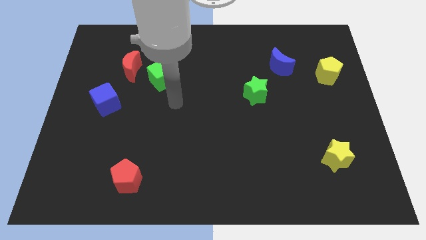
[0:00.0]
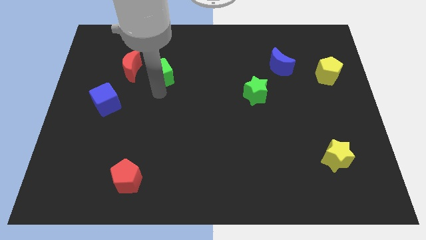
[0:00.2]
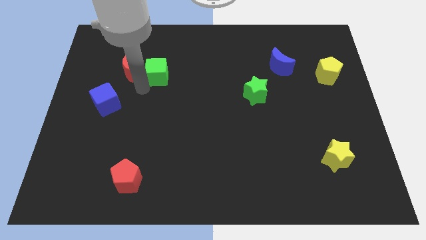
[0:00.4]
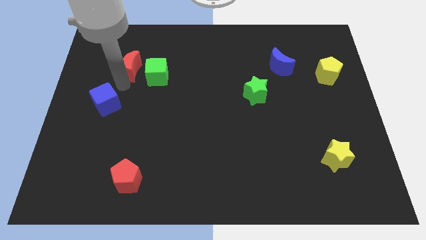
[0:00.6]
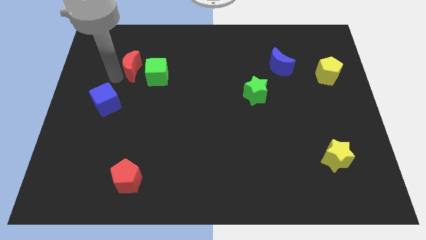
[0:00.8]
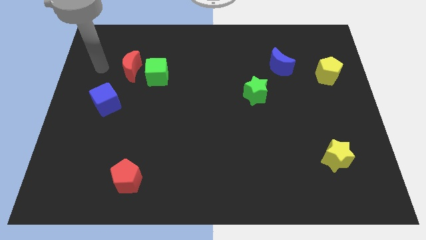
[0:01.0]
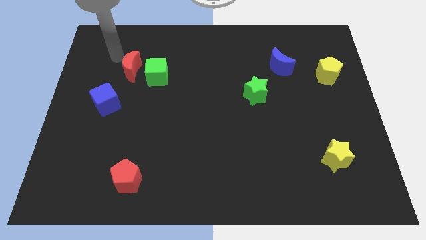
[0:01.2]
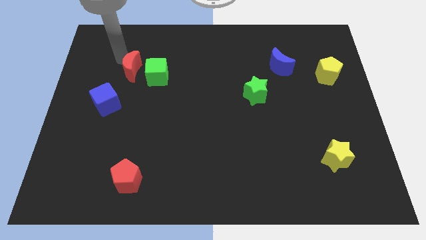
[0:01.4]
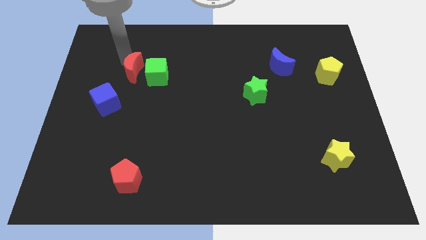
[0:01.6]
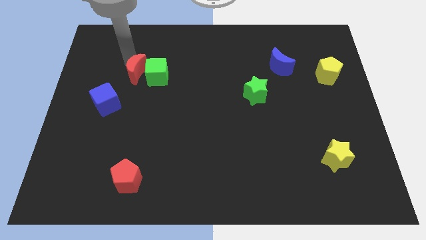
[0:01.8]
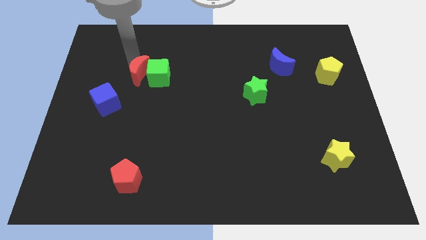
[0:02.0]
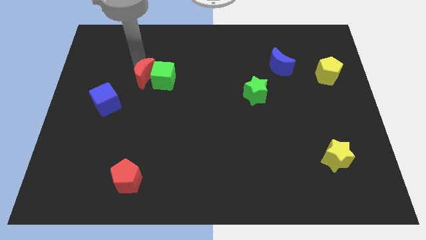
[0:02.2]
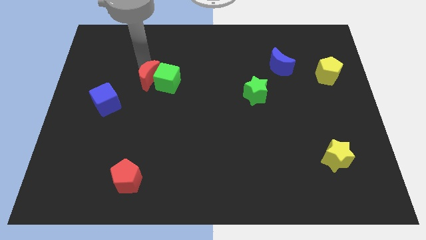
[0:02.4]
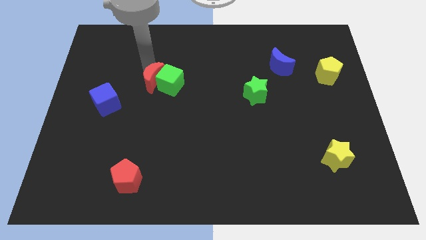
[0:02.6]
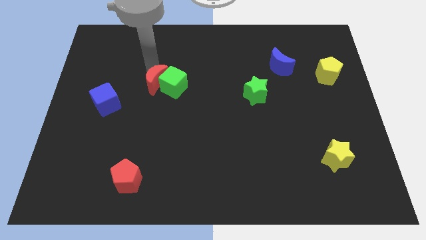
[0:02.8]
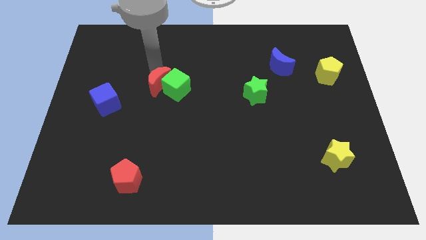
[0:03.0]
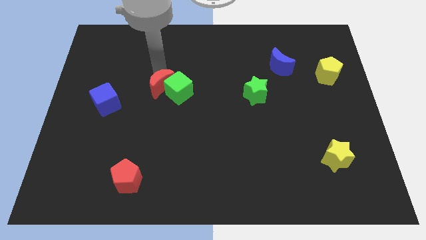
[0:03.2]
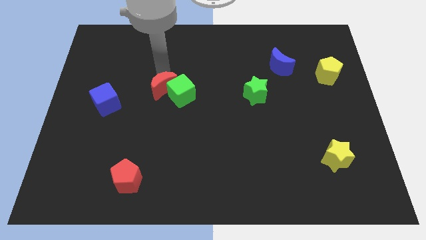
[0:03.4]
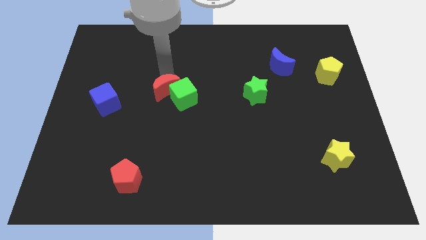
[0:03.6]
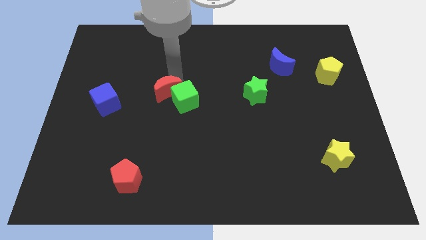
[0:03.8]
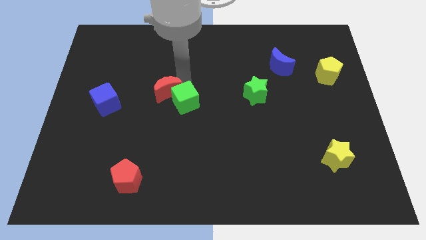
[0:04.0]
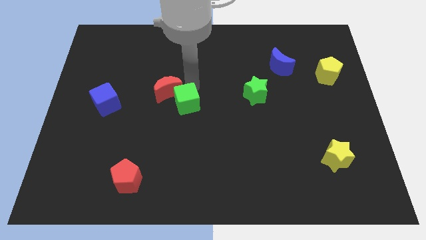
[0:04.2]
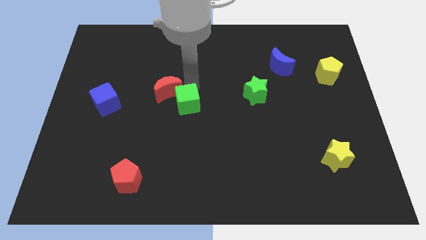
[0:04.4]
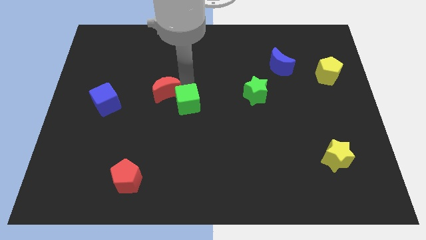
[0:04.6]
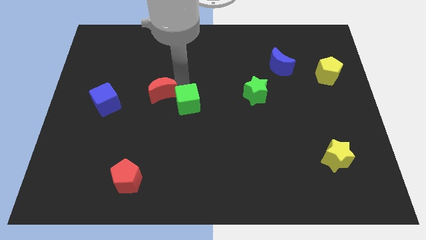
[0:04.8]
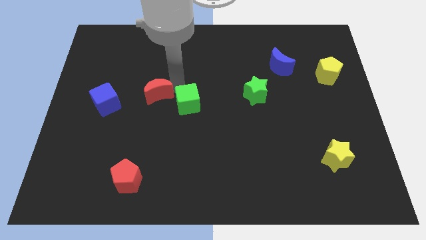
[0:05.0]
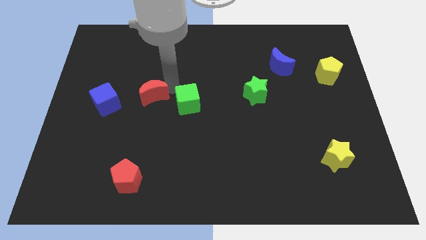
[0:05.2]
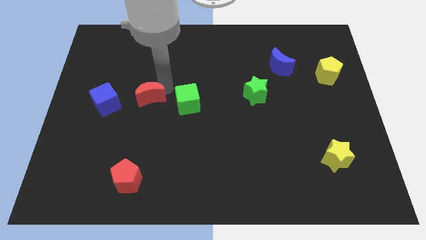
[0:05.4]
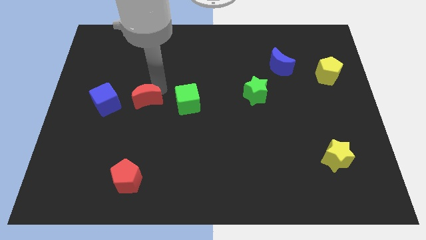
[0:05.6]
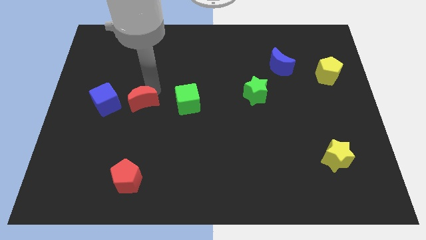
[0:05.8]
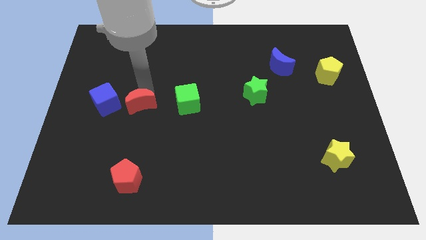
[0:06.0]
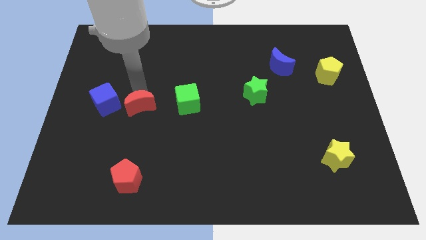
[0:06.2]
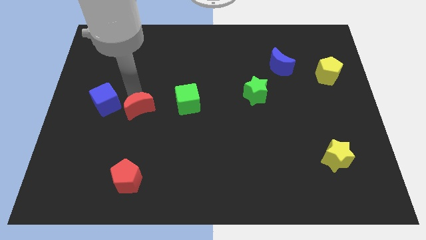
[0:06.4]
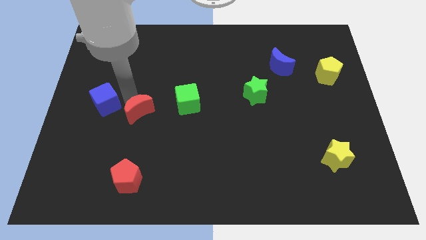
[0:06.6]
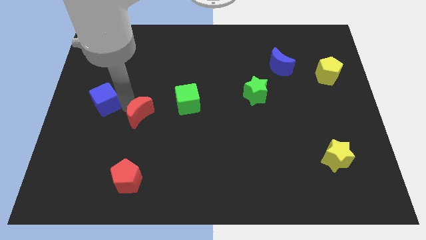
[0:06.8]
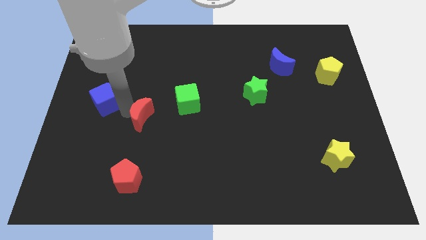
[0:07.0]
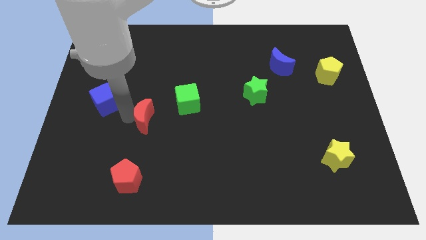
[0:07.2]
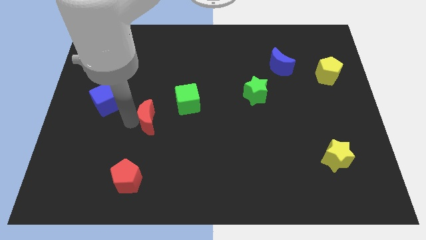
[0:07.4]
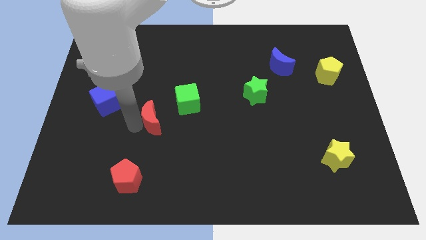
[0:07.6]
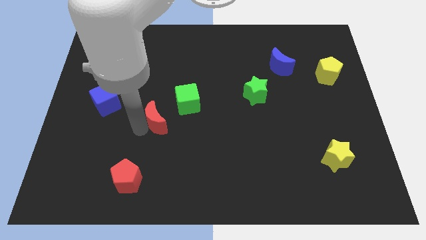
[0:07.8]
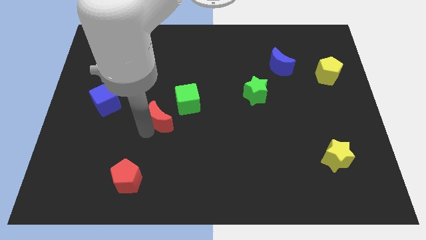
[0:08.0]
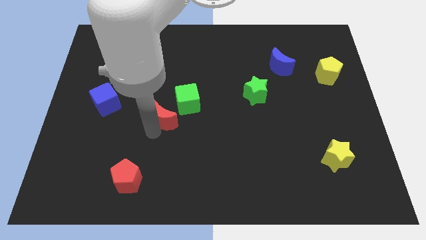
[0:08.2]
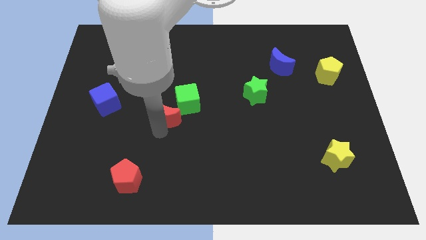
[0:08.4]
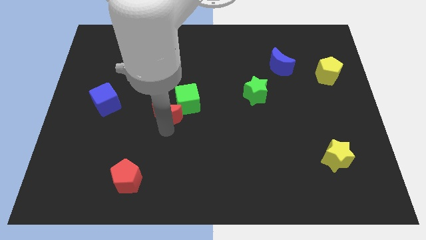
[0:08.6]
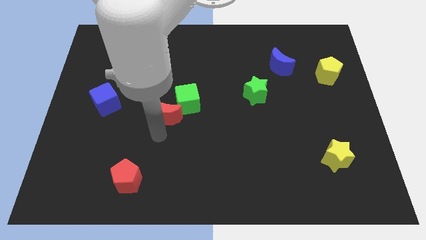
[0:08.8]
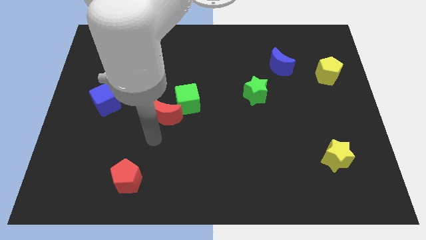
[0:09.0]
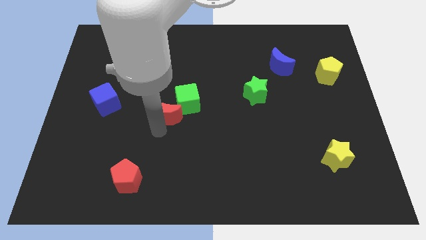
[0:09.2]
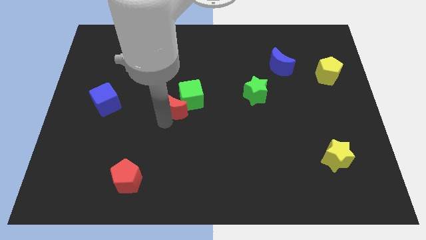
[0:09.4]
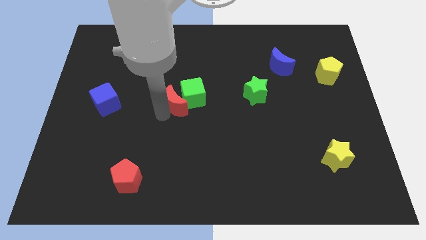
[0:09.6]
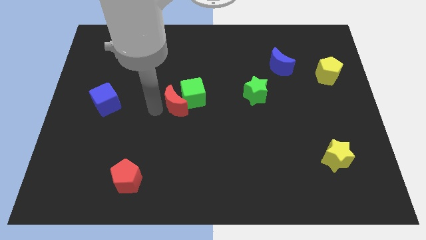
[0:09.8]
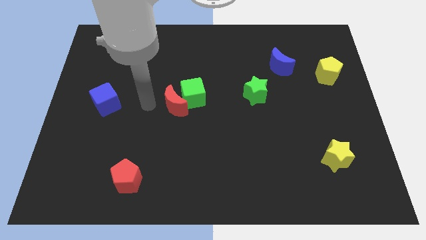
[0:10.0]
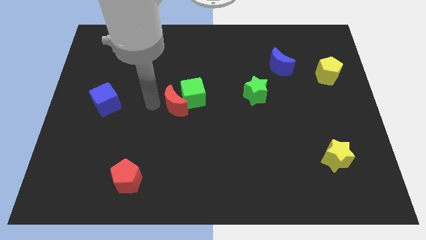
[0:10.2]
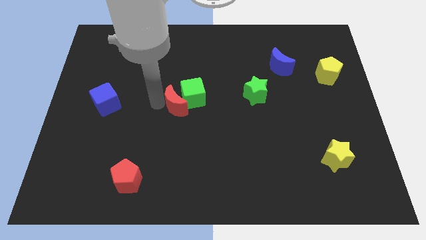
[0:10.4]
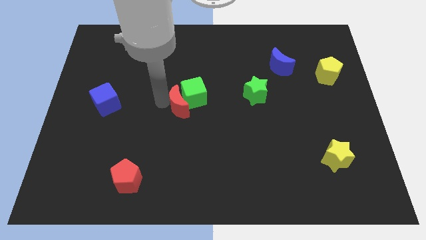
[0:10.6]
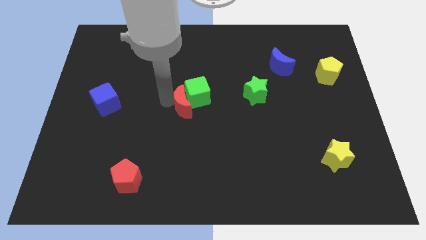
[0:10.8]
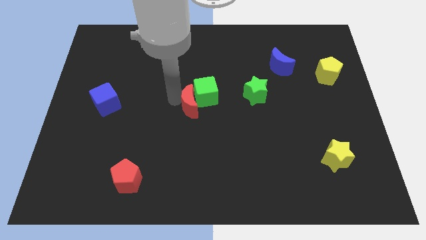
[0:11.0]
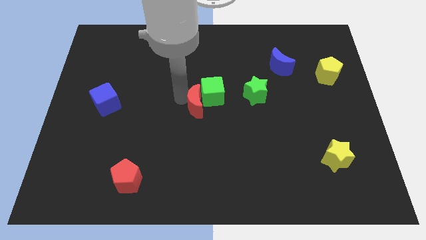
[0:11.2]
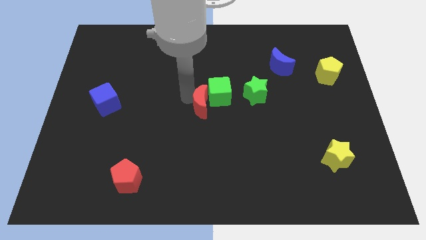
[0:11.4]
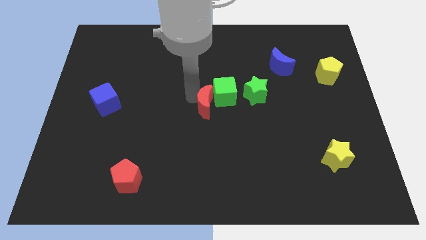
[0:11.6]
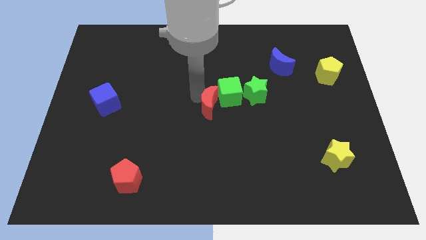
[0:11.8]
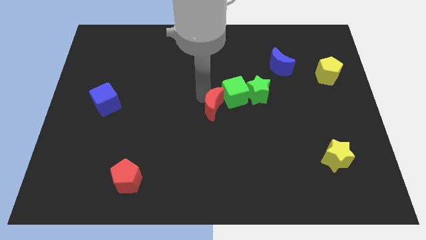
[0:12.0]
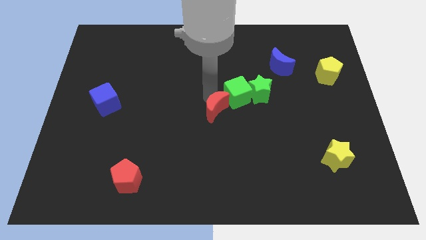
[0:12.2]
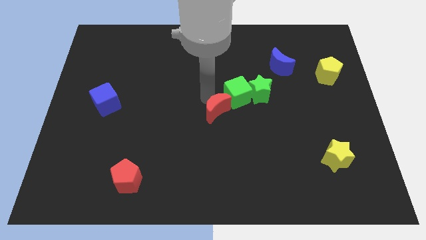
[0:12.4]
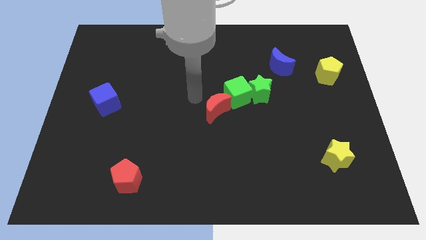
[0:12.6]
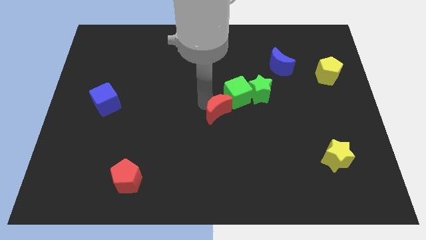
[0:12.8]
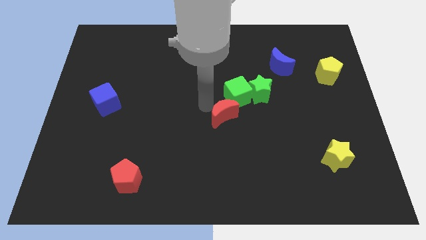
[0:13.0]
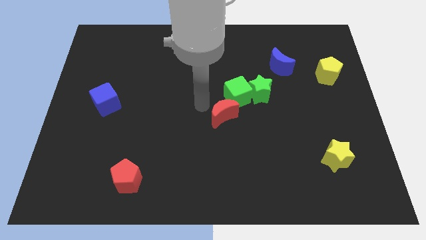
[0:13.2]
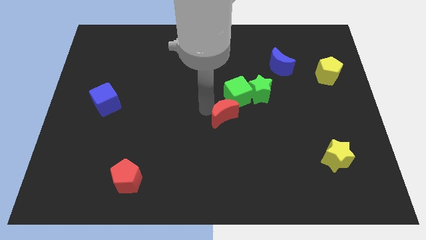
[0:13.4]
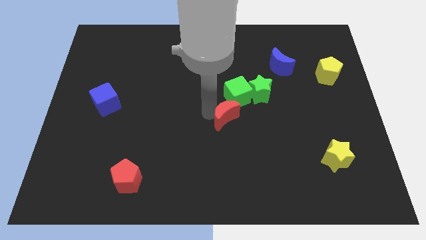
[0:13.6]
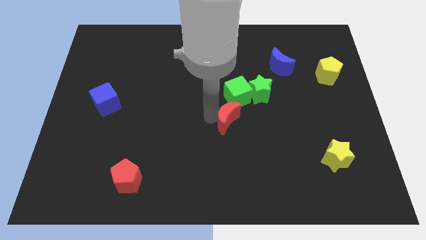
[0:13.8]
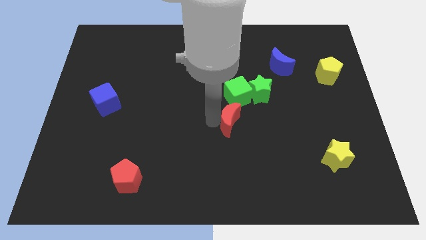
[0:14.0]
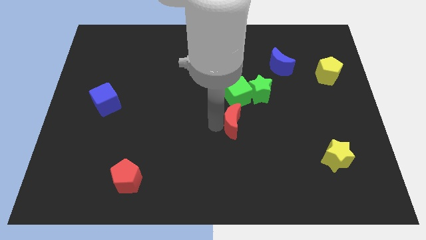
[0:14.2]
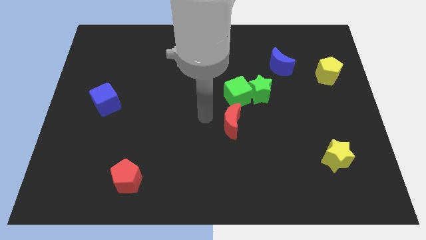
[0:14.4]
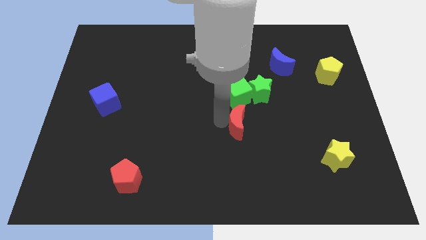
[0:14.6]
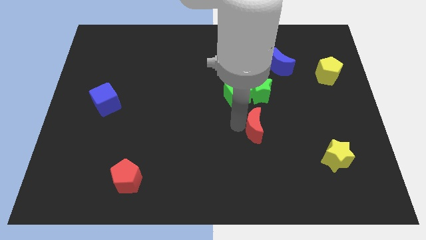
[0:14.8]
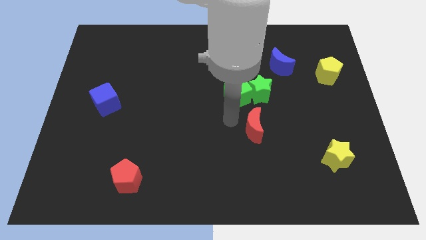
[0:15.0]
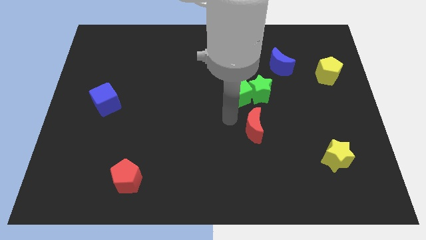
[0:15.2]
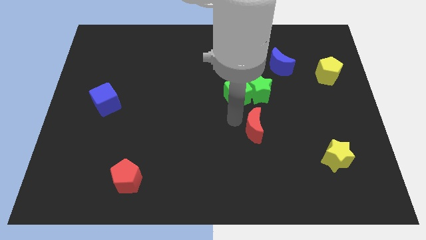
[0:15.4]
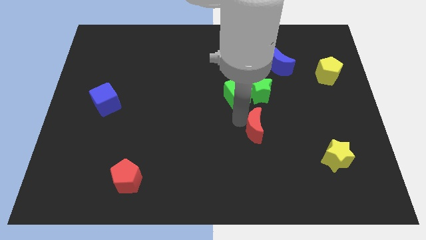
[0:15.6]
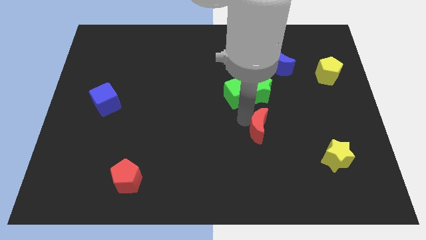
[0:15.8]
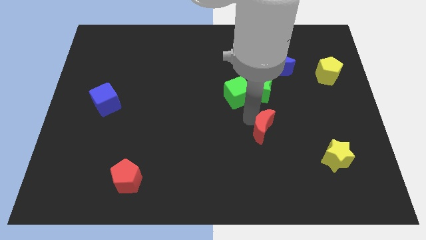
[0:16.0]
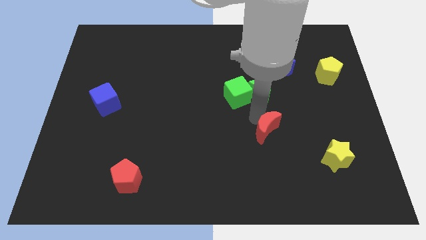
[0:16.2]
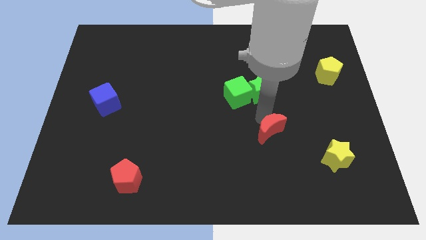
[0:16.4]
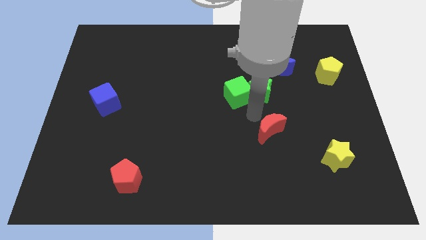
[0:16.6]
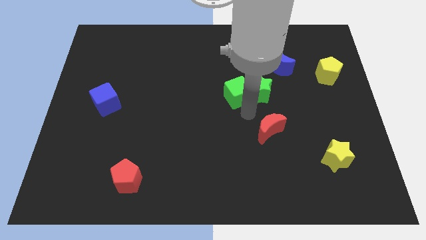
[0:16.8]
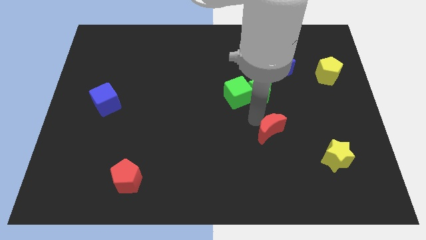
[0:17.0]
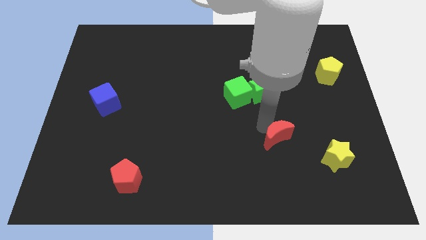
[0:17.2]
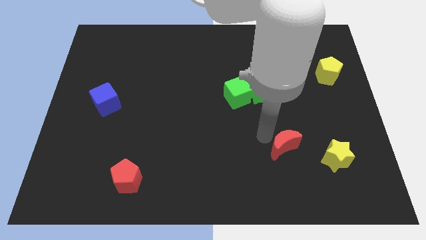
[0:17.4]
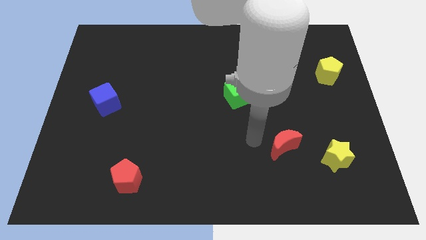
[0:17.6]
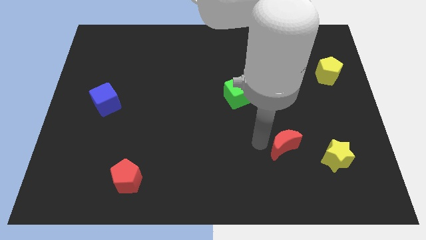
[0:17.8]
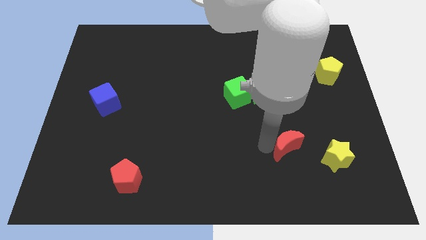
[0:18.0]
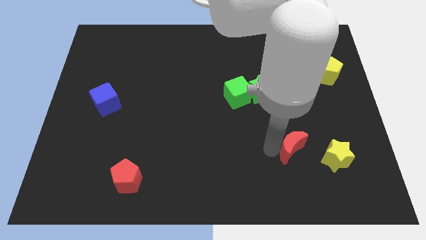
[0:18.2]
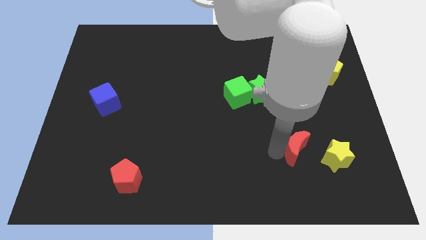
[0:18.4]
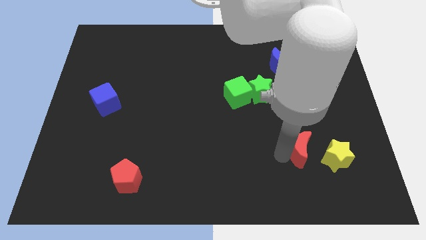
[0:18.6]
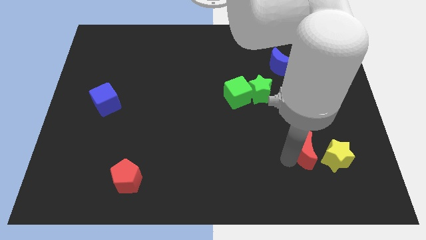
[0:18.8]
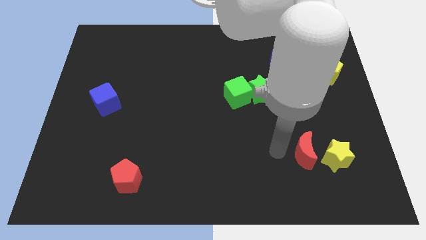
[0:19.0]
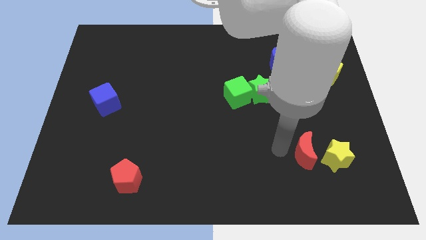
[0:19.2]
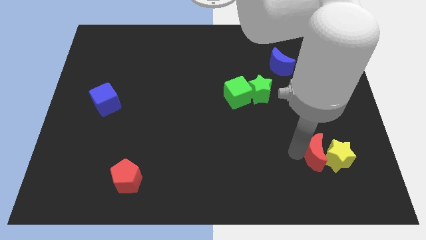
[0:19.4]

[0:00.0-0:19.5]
push the red moon to the yellow star
